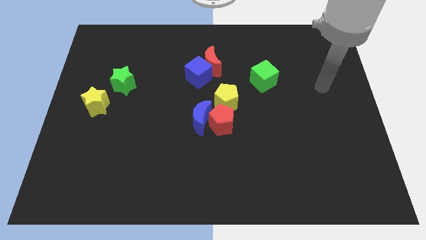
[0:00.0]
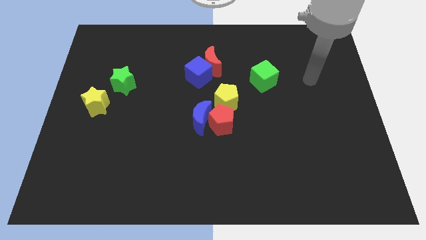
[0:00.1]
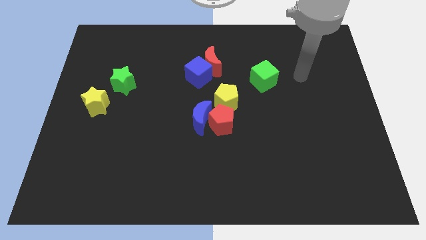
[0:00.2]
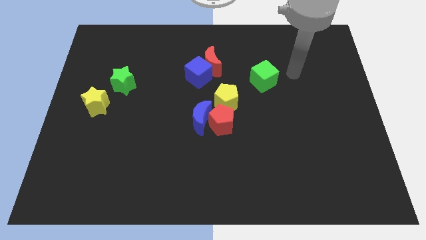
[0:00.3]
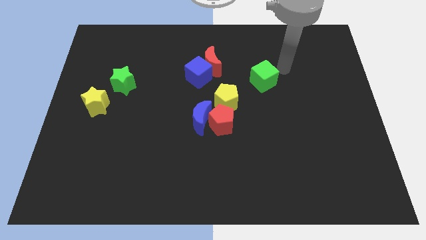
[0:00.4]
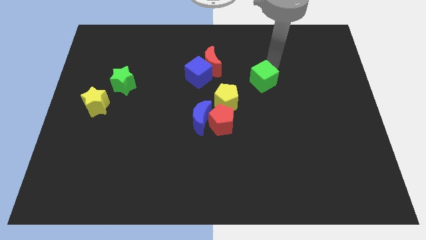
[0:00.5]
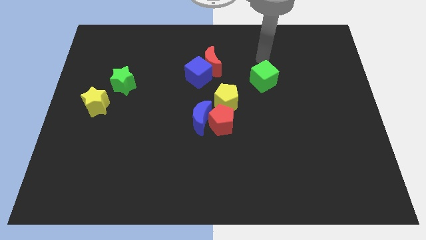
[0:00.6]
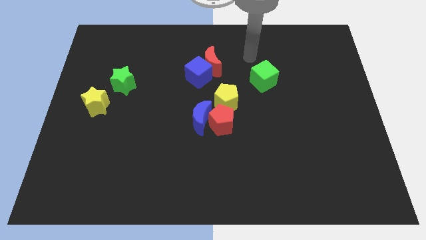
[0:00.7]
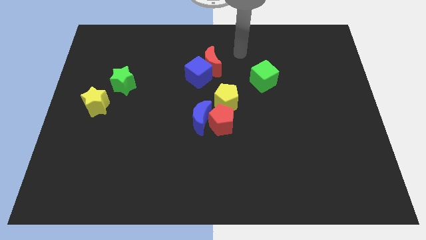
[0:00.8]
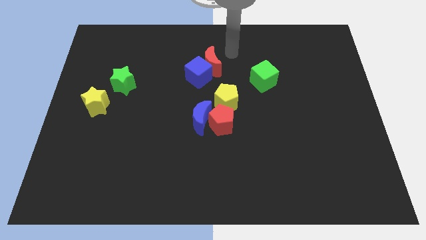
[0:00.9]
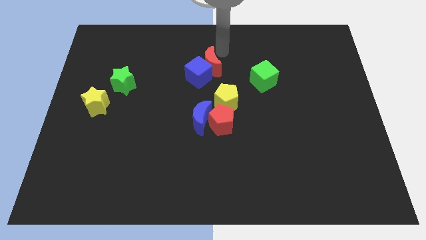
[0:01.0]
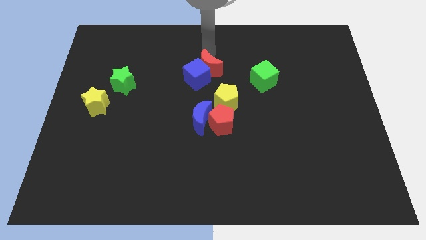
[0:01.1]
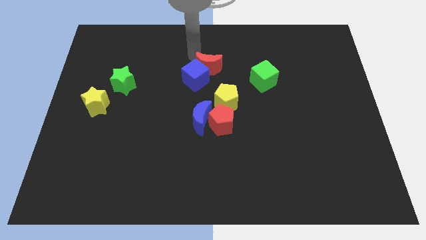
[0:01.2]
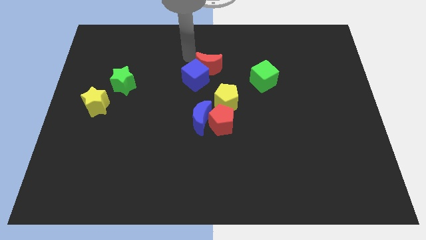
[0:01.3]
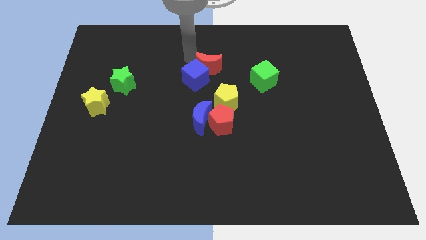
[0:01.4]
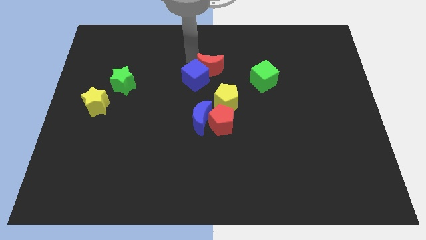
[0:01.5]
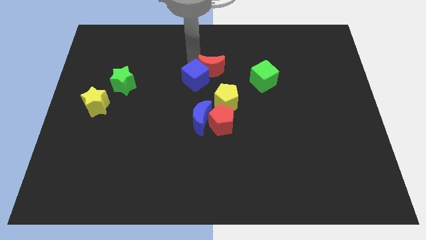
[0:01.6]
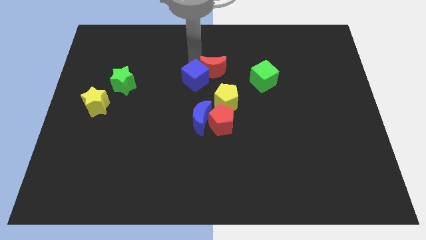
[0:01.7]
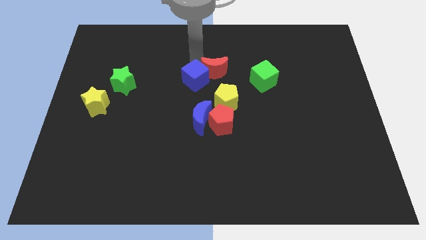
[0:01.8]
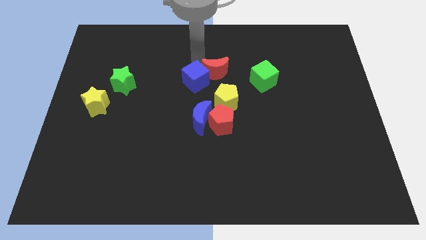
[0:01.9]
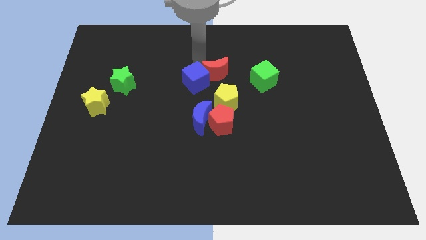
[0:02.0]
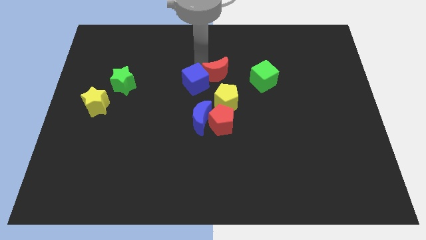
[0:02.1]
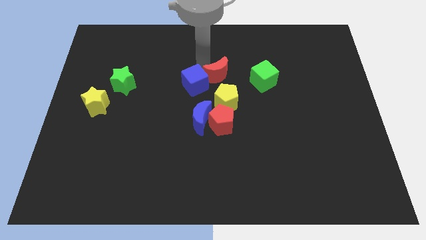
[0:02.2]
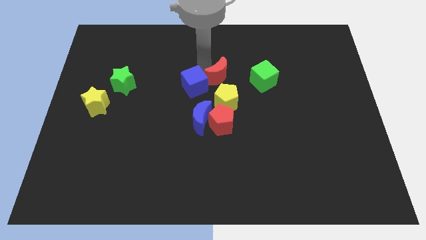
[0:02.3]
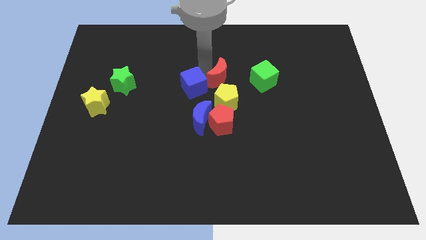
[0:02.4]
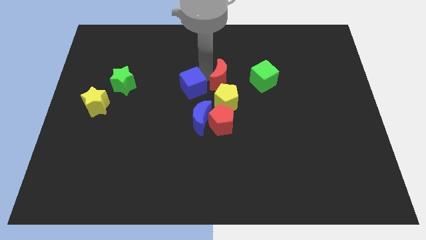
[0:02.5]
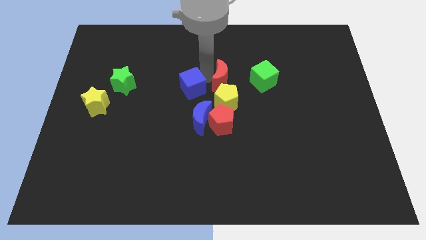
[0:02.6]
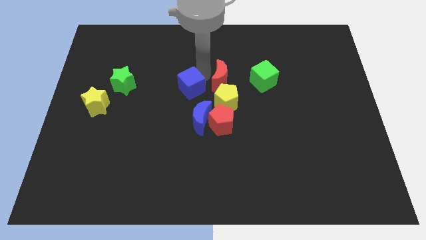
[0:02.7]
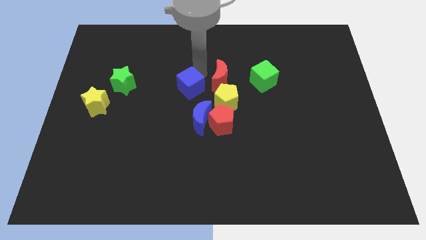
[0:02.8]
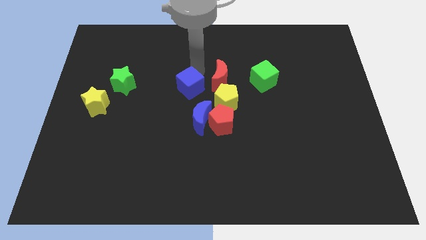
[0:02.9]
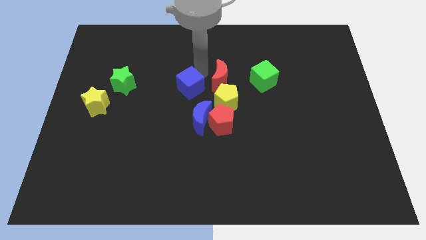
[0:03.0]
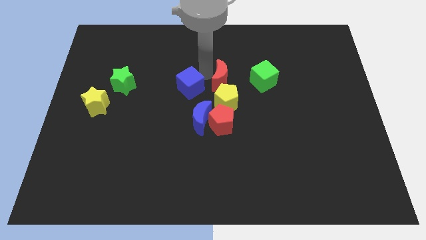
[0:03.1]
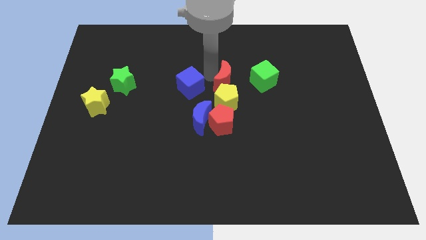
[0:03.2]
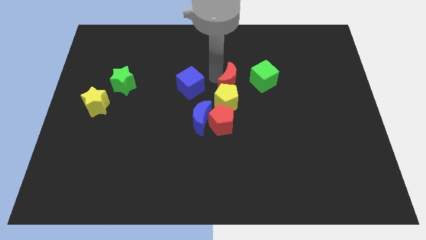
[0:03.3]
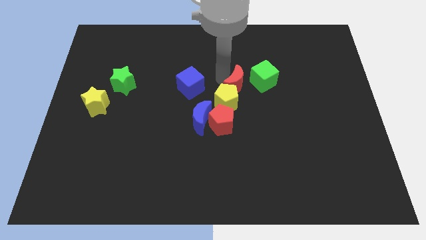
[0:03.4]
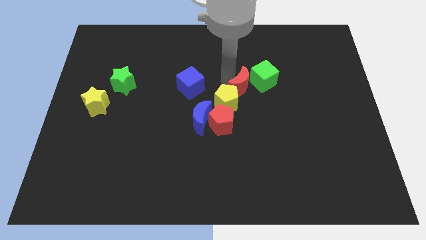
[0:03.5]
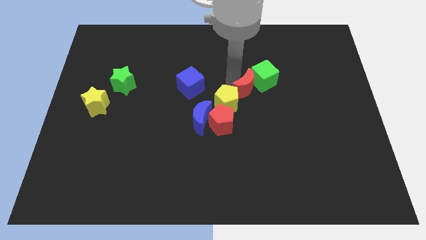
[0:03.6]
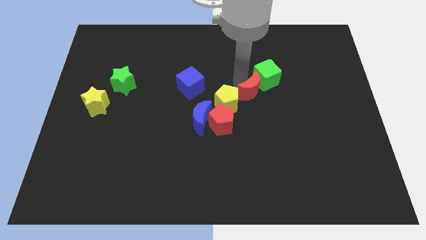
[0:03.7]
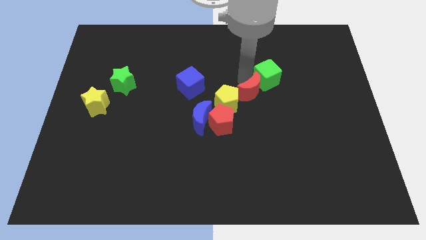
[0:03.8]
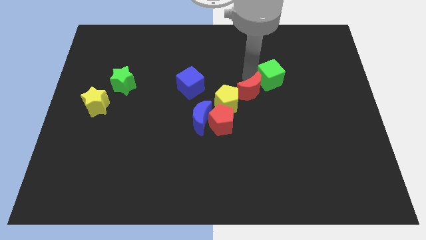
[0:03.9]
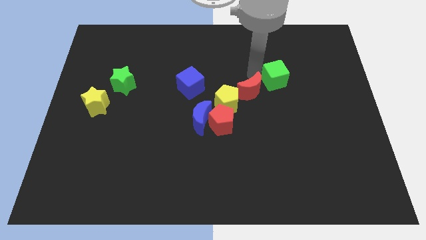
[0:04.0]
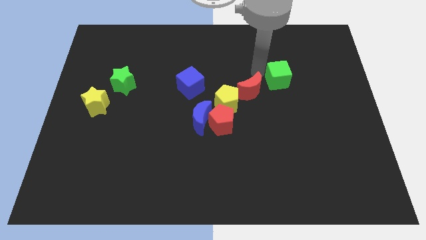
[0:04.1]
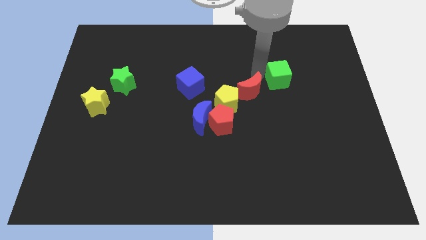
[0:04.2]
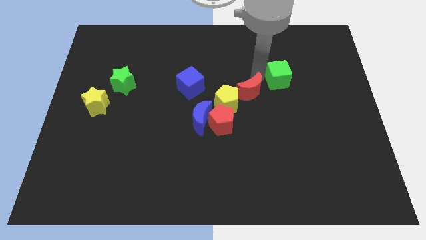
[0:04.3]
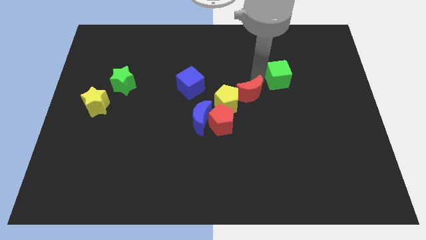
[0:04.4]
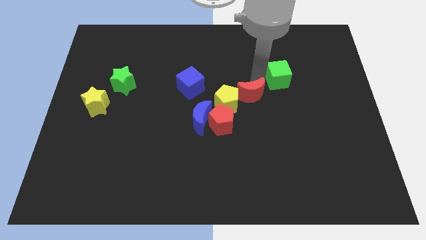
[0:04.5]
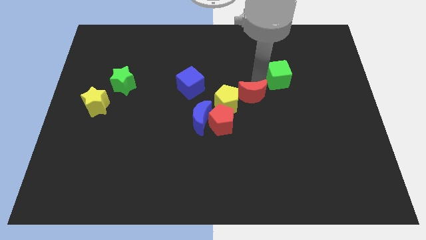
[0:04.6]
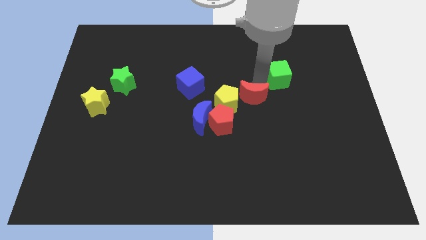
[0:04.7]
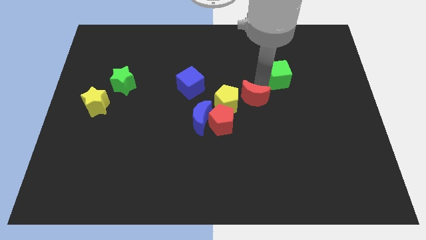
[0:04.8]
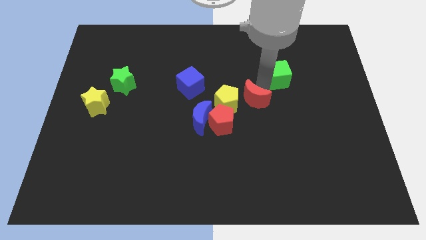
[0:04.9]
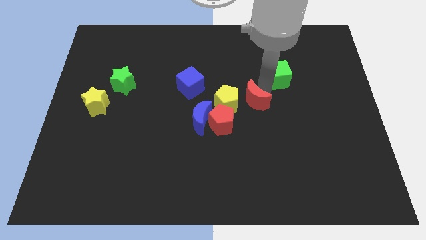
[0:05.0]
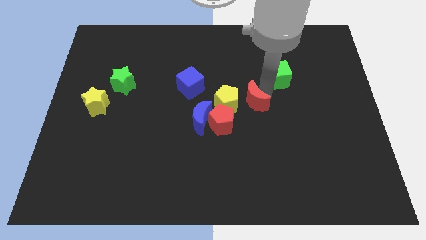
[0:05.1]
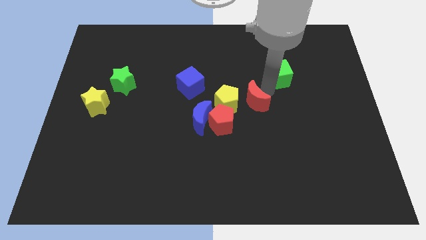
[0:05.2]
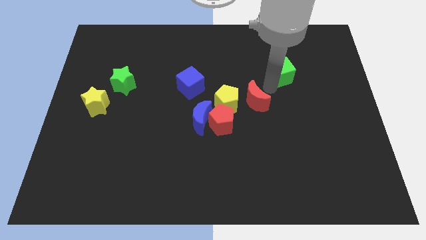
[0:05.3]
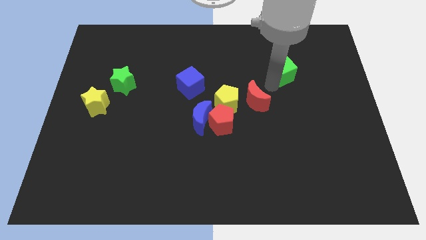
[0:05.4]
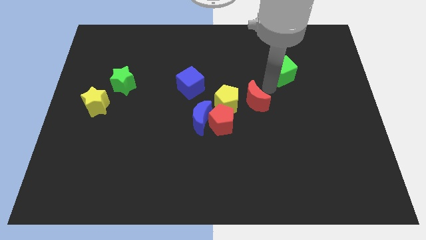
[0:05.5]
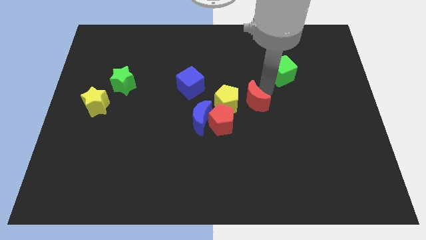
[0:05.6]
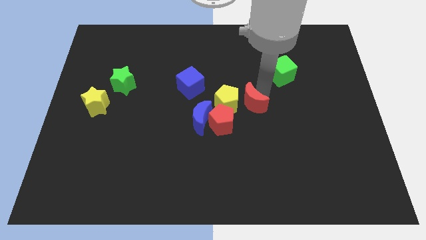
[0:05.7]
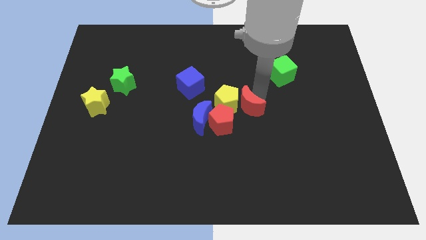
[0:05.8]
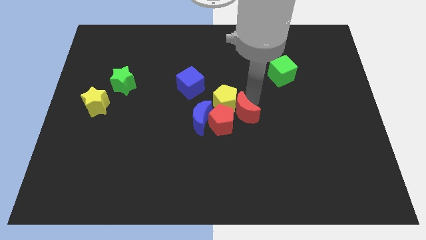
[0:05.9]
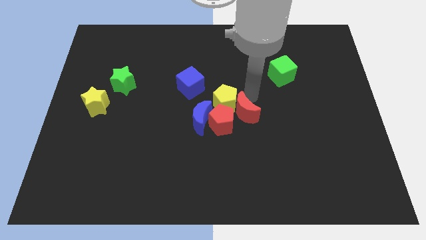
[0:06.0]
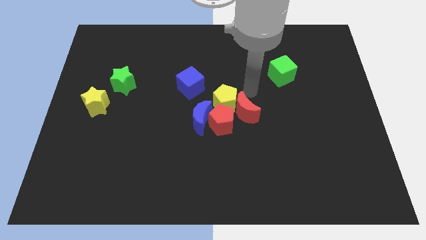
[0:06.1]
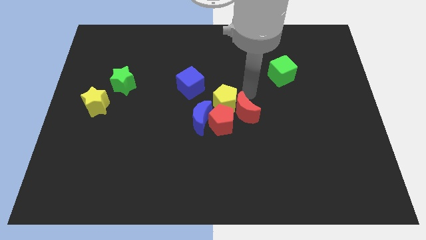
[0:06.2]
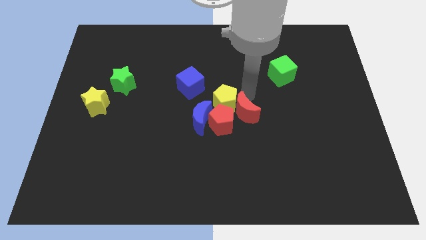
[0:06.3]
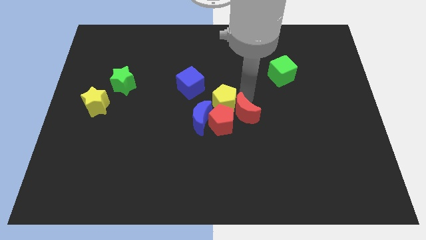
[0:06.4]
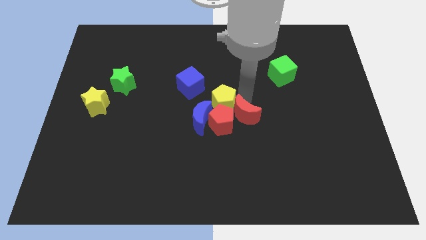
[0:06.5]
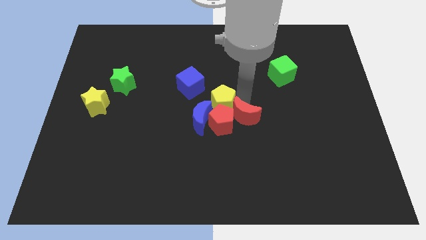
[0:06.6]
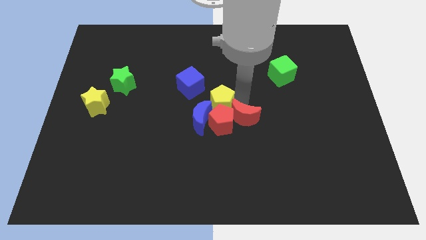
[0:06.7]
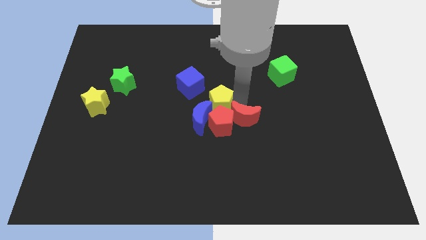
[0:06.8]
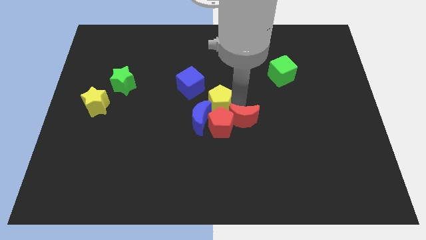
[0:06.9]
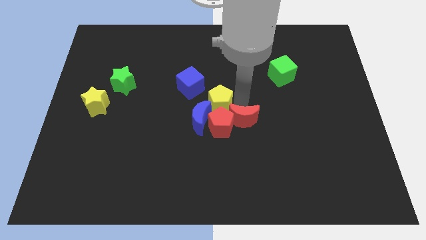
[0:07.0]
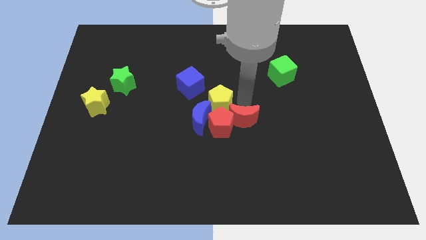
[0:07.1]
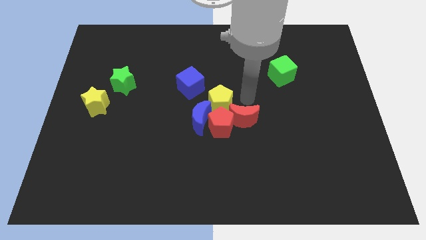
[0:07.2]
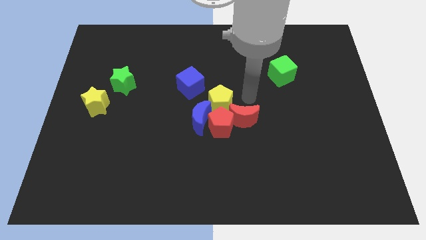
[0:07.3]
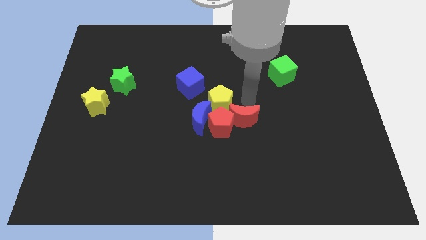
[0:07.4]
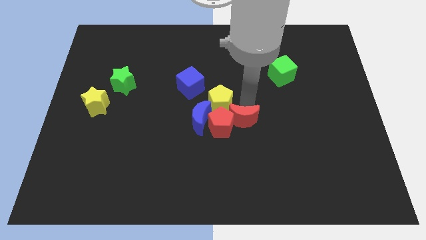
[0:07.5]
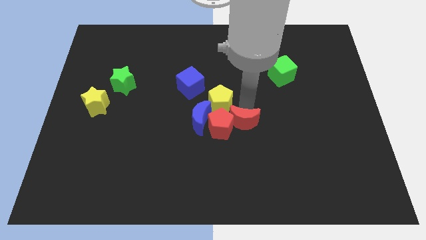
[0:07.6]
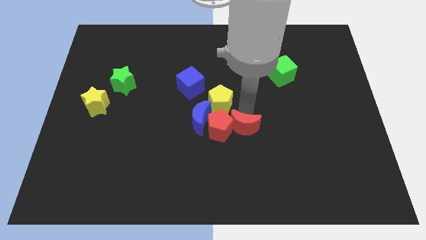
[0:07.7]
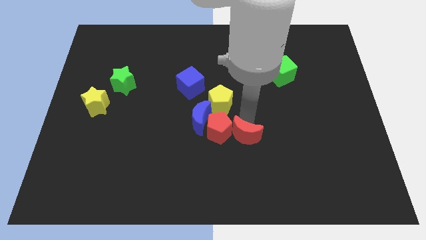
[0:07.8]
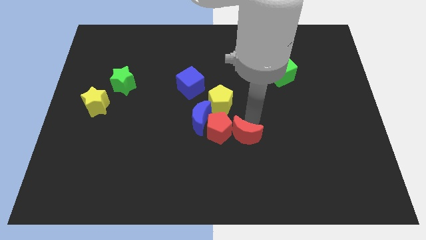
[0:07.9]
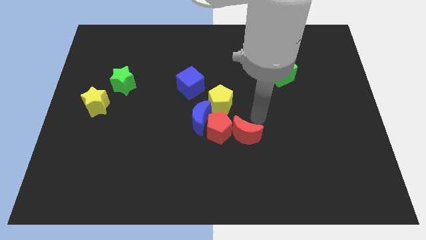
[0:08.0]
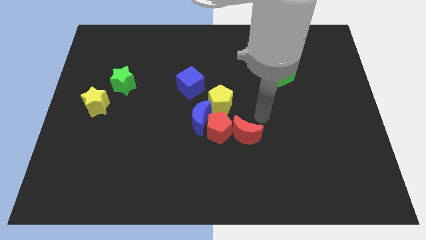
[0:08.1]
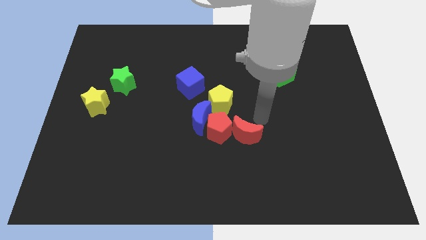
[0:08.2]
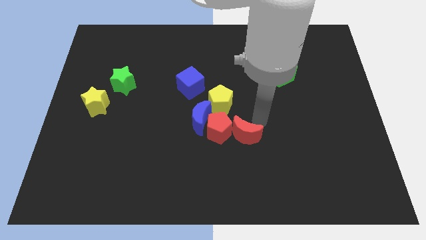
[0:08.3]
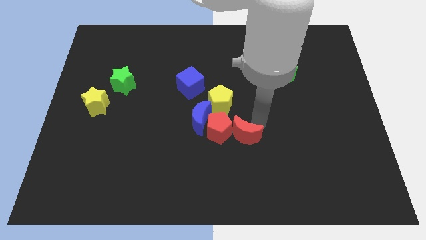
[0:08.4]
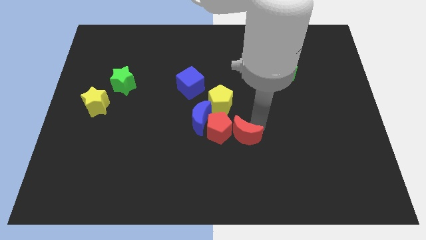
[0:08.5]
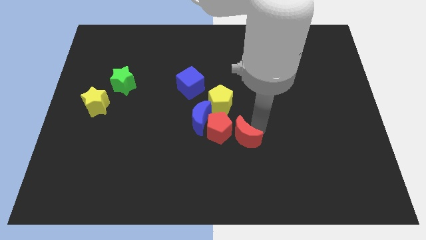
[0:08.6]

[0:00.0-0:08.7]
push the red moon down
